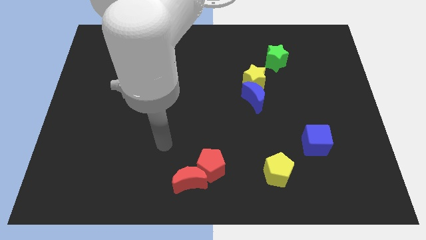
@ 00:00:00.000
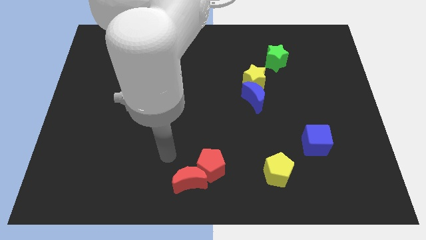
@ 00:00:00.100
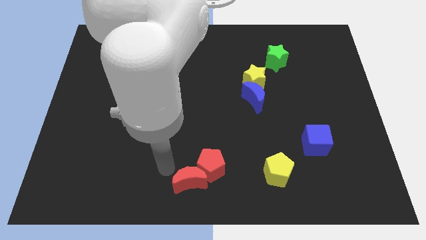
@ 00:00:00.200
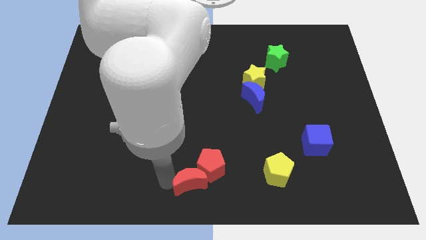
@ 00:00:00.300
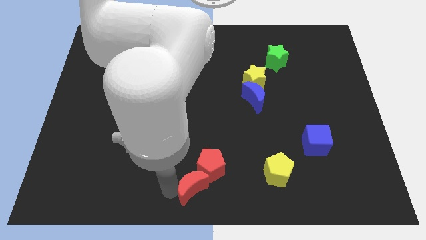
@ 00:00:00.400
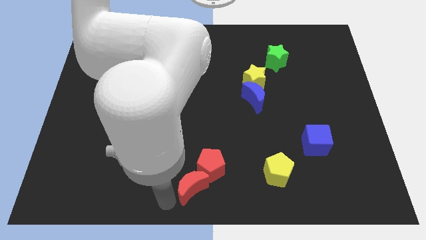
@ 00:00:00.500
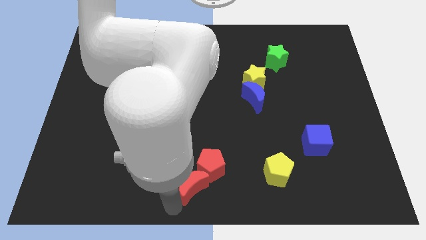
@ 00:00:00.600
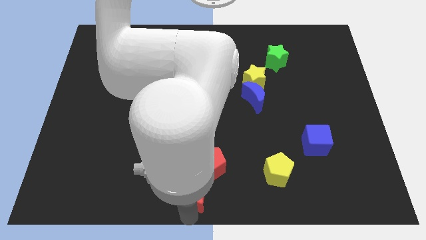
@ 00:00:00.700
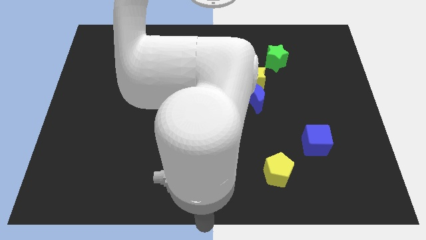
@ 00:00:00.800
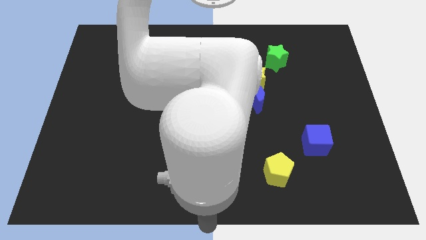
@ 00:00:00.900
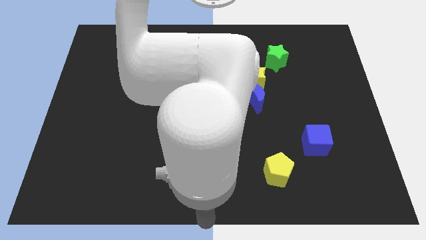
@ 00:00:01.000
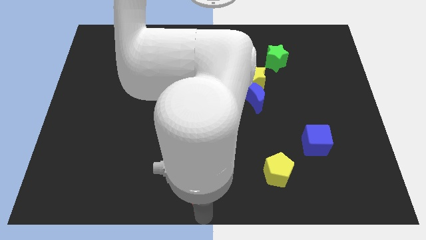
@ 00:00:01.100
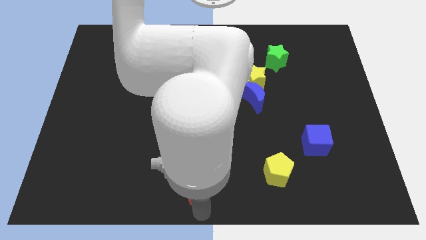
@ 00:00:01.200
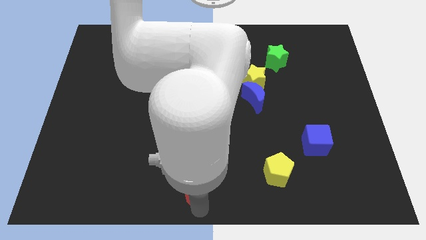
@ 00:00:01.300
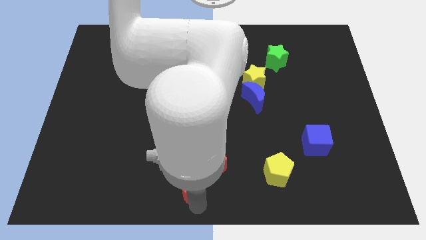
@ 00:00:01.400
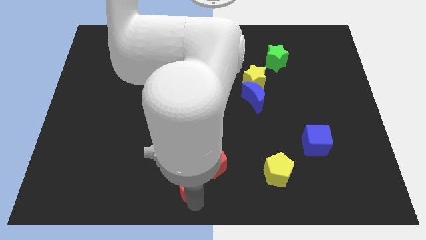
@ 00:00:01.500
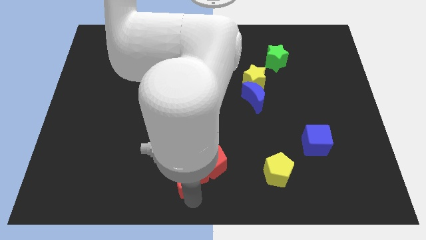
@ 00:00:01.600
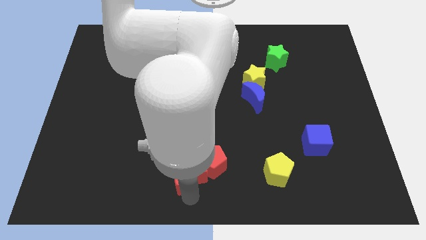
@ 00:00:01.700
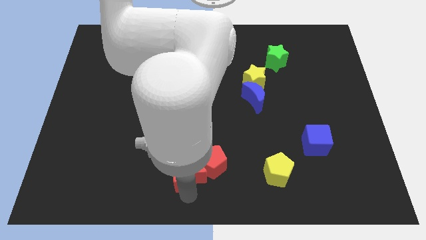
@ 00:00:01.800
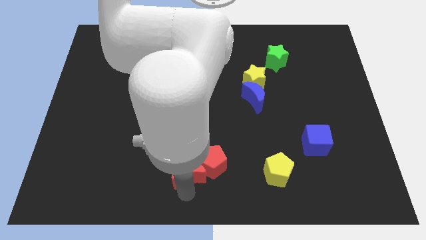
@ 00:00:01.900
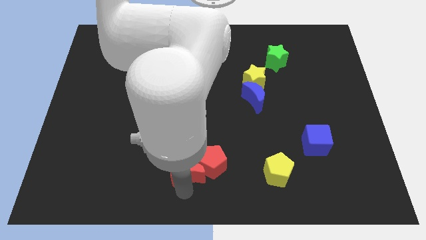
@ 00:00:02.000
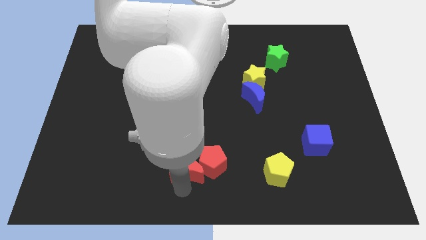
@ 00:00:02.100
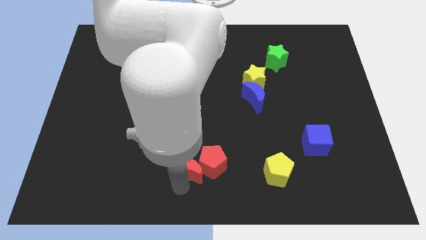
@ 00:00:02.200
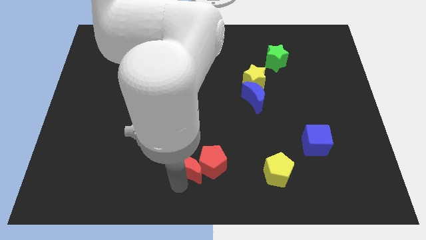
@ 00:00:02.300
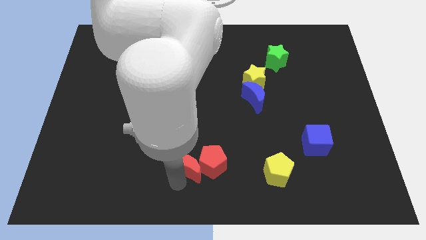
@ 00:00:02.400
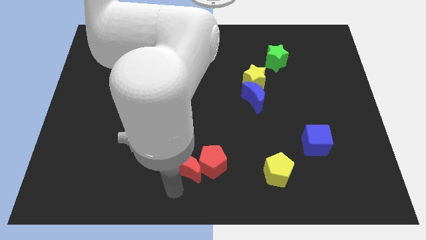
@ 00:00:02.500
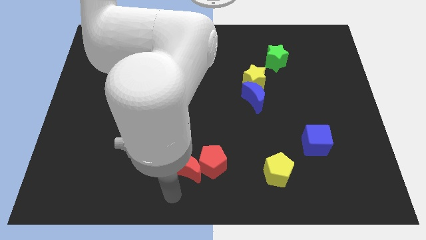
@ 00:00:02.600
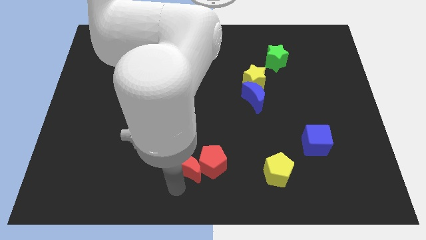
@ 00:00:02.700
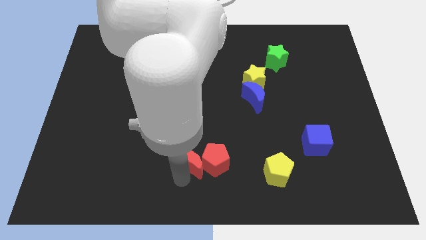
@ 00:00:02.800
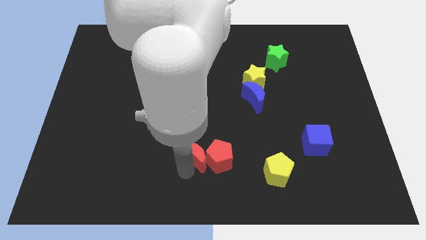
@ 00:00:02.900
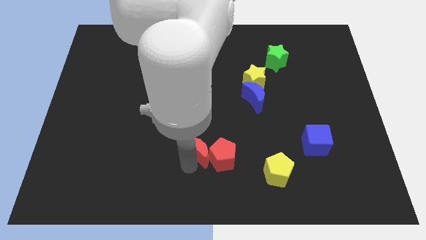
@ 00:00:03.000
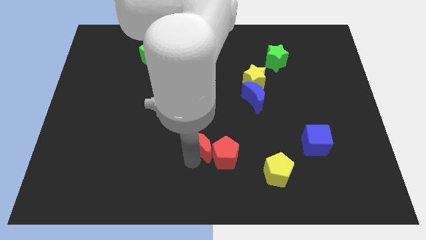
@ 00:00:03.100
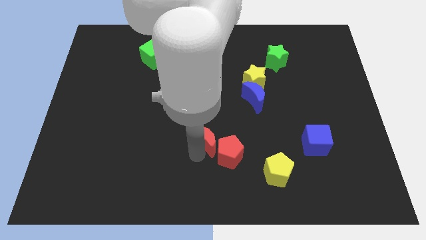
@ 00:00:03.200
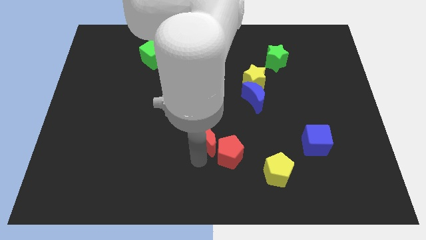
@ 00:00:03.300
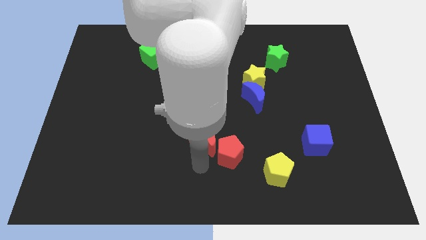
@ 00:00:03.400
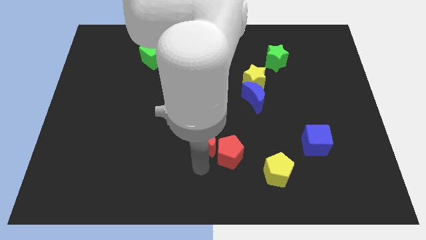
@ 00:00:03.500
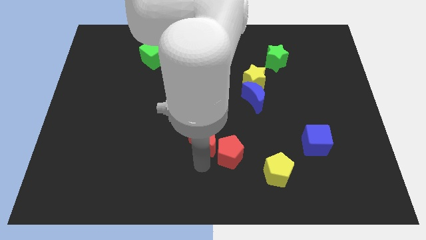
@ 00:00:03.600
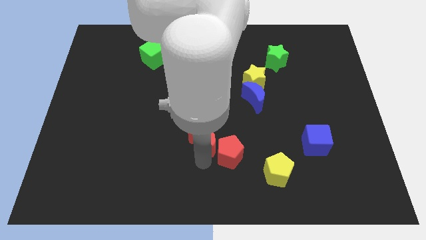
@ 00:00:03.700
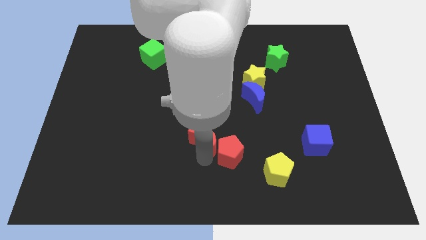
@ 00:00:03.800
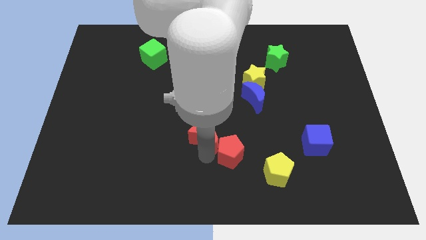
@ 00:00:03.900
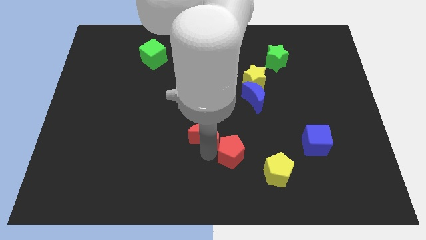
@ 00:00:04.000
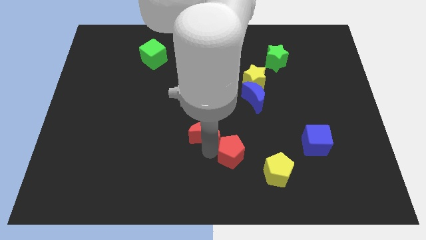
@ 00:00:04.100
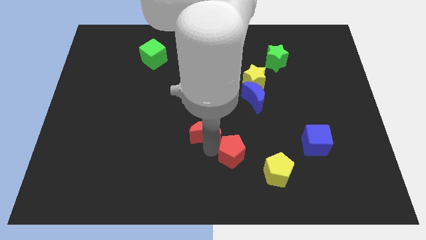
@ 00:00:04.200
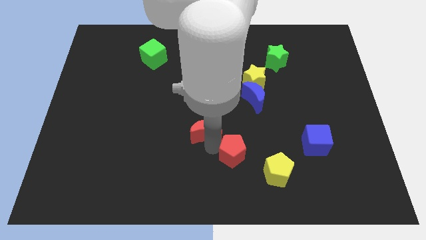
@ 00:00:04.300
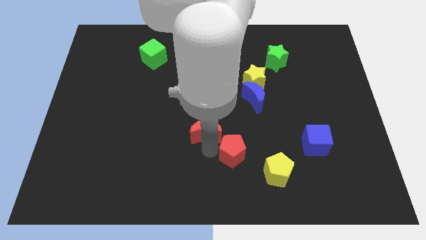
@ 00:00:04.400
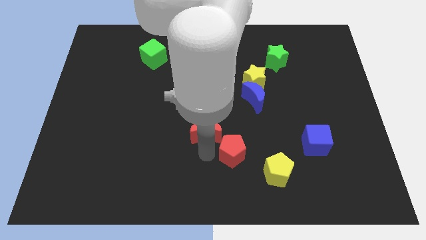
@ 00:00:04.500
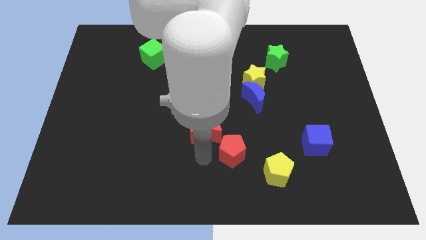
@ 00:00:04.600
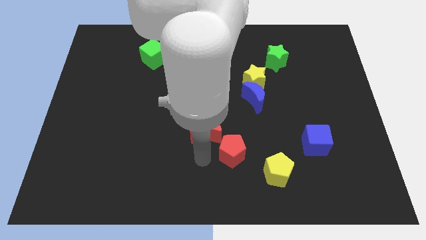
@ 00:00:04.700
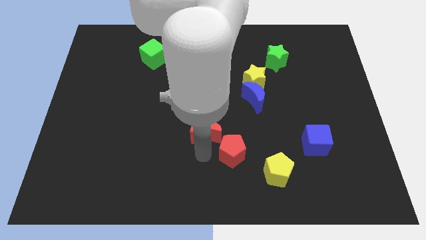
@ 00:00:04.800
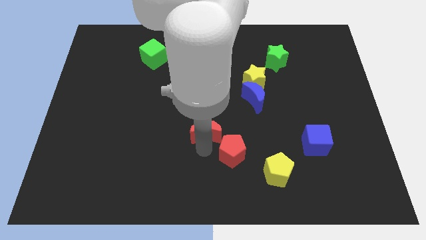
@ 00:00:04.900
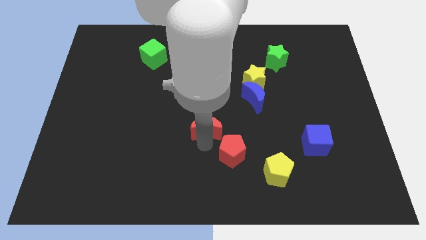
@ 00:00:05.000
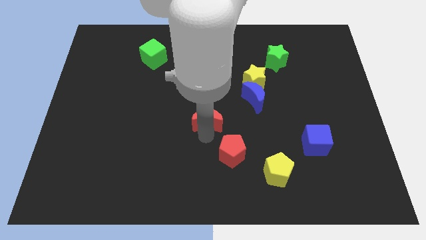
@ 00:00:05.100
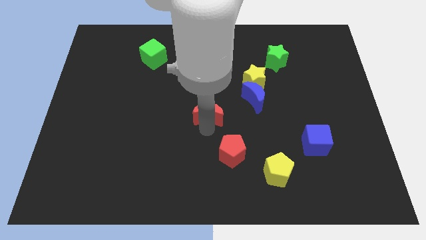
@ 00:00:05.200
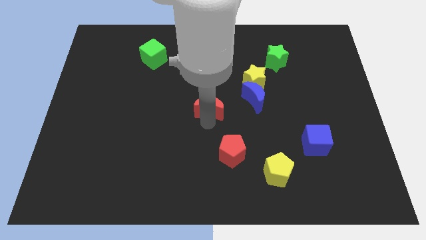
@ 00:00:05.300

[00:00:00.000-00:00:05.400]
push the red moon left of the blue moon

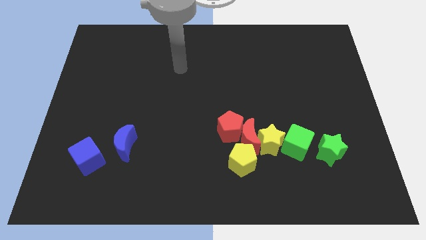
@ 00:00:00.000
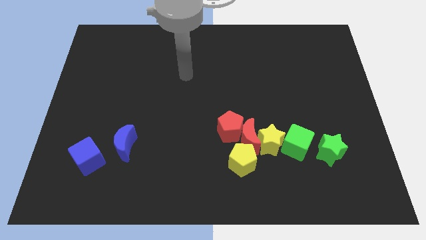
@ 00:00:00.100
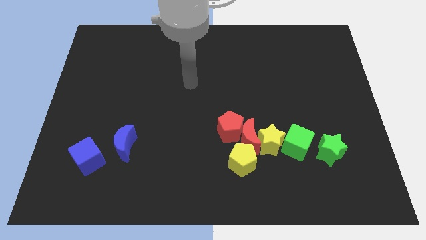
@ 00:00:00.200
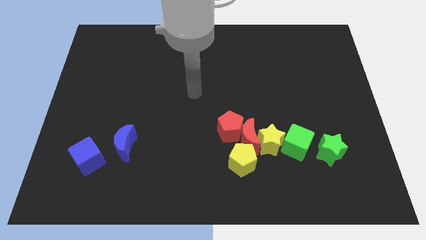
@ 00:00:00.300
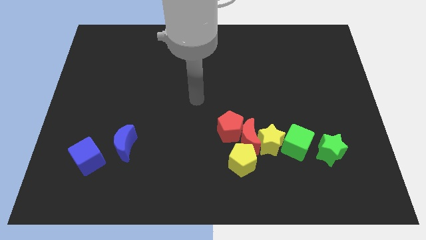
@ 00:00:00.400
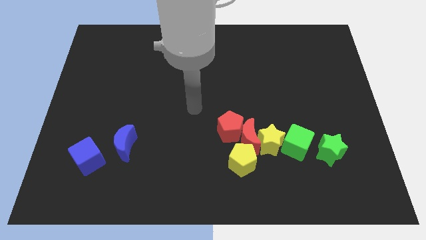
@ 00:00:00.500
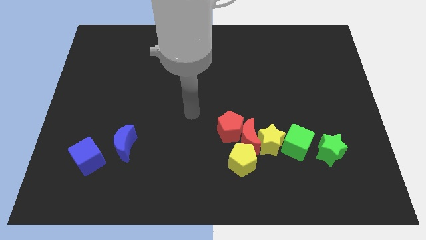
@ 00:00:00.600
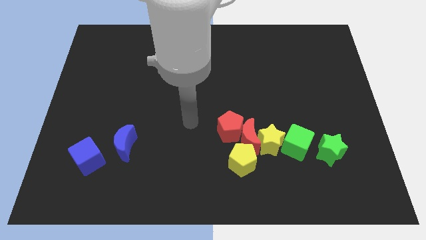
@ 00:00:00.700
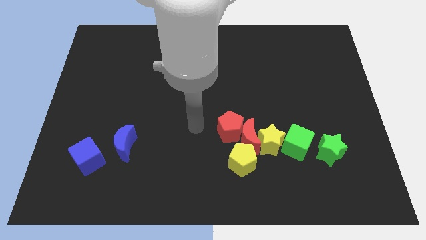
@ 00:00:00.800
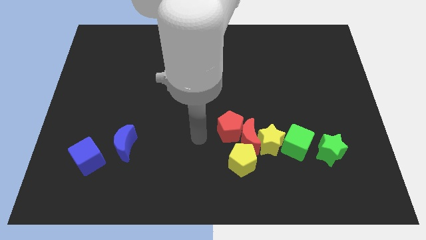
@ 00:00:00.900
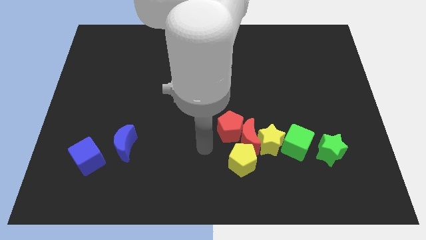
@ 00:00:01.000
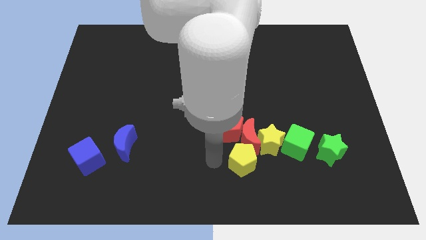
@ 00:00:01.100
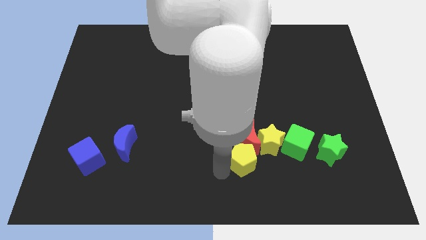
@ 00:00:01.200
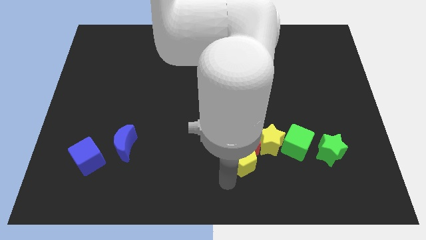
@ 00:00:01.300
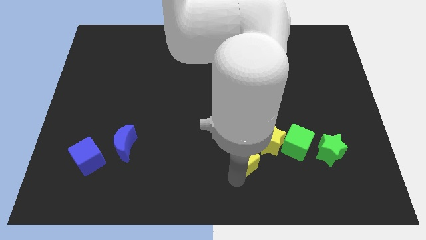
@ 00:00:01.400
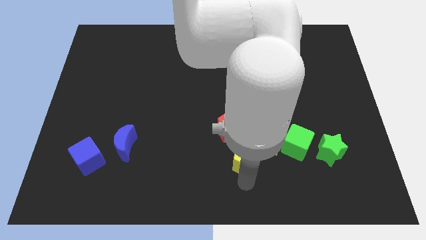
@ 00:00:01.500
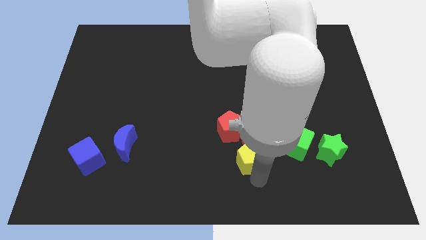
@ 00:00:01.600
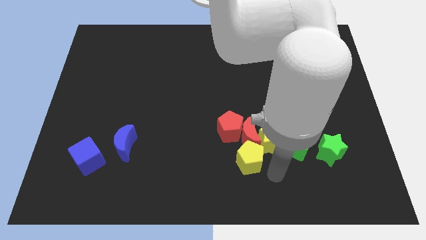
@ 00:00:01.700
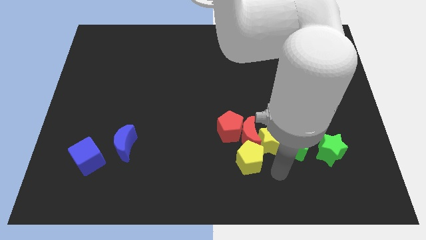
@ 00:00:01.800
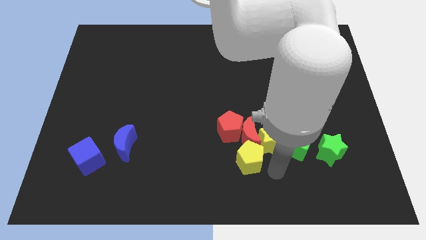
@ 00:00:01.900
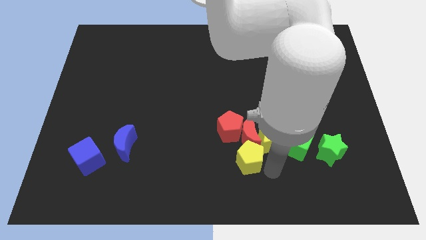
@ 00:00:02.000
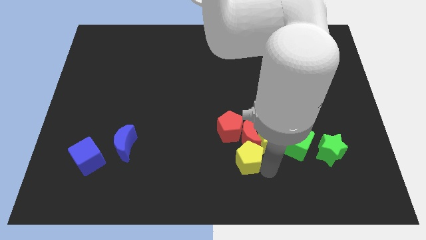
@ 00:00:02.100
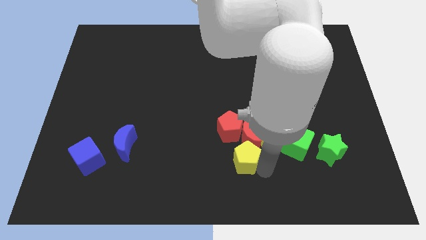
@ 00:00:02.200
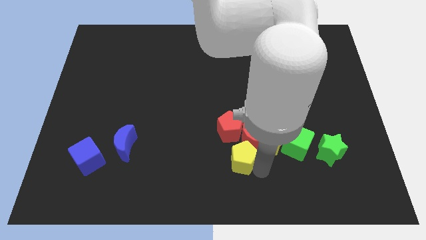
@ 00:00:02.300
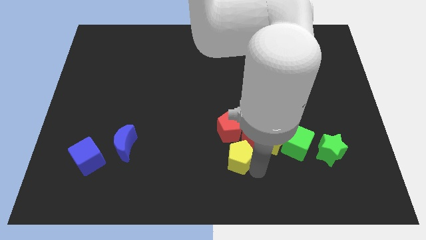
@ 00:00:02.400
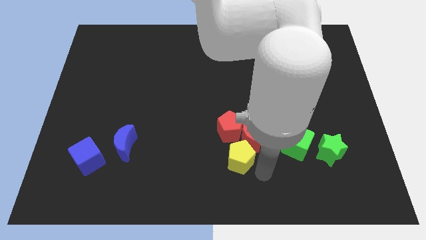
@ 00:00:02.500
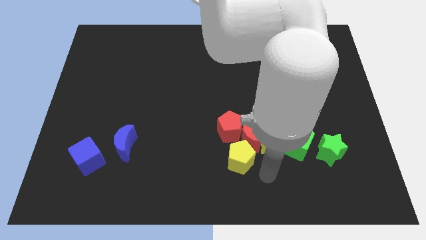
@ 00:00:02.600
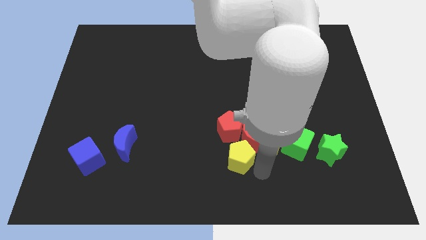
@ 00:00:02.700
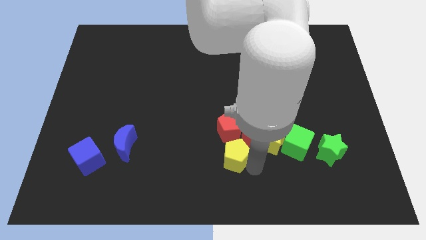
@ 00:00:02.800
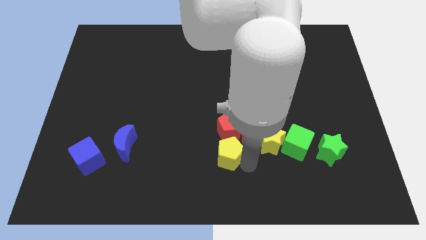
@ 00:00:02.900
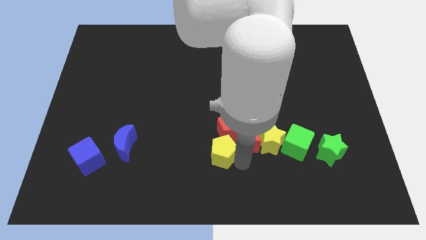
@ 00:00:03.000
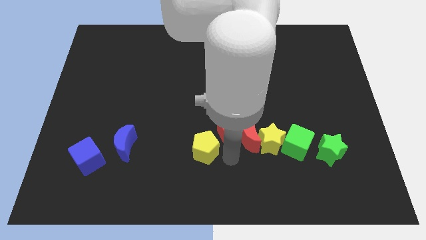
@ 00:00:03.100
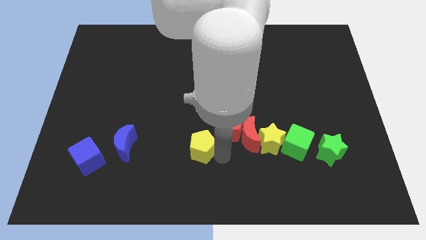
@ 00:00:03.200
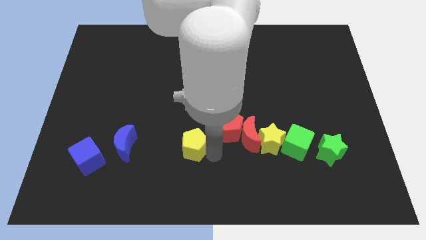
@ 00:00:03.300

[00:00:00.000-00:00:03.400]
slide the yellow pentagon to the left side of the red pentagon
